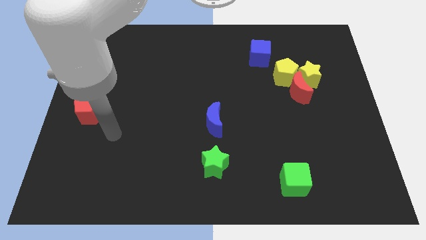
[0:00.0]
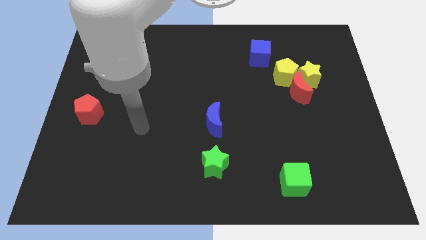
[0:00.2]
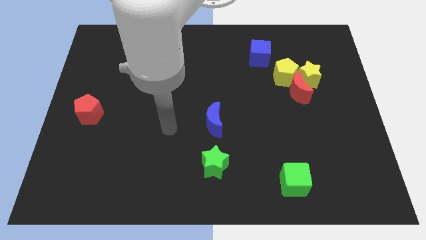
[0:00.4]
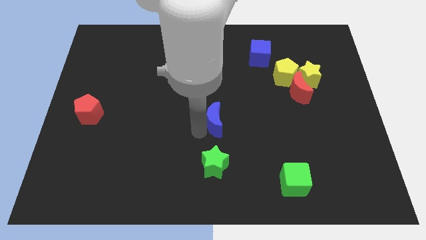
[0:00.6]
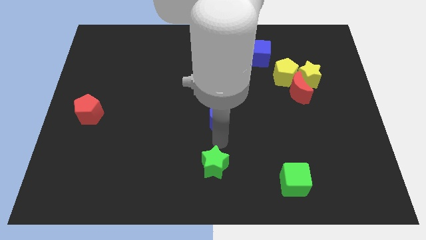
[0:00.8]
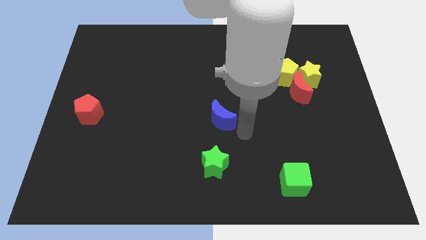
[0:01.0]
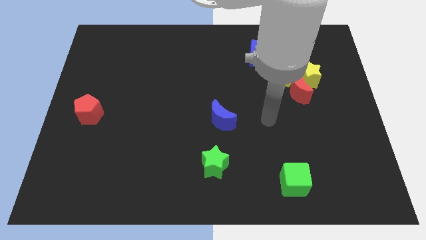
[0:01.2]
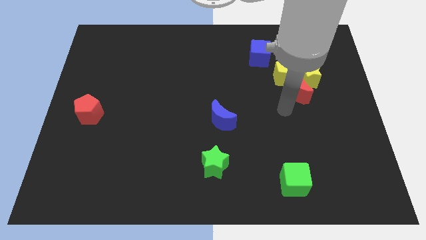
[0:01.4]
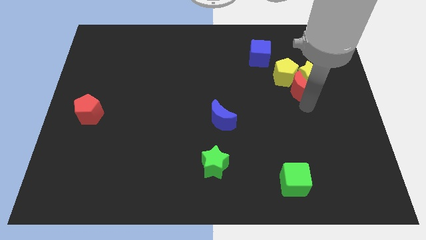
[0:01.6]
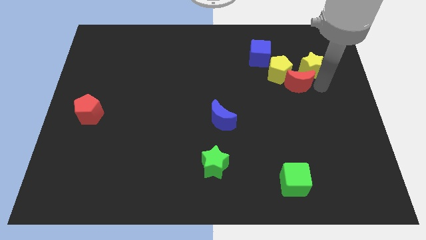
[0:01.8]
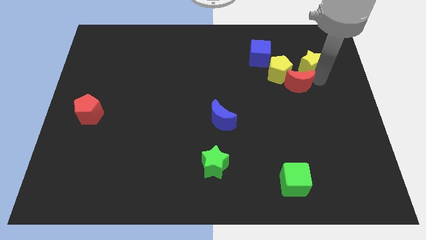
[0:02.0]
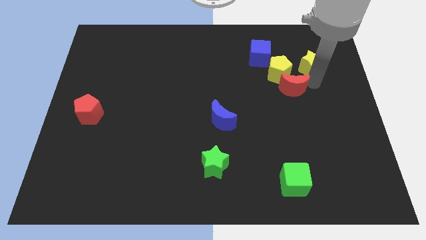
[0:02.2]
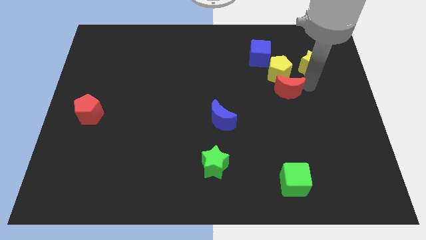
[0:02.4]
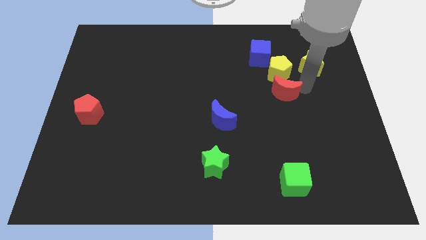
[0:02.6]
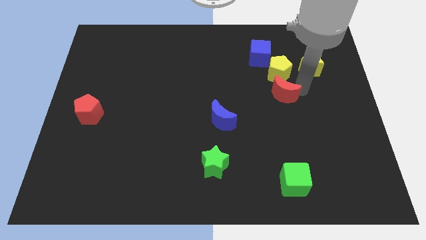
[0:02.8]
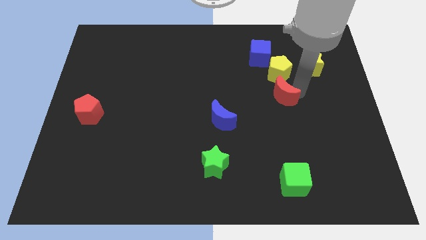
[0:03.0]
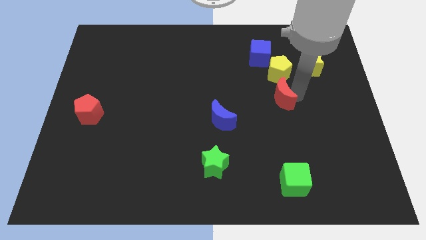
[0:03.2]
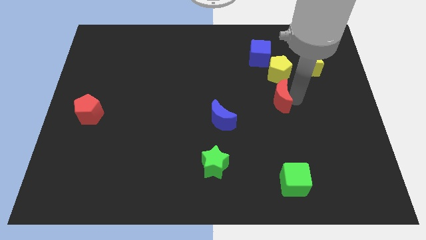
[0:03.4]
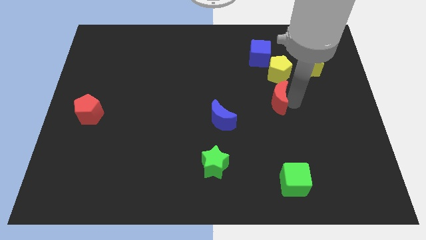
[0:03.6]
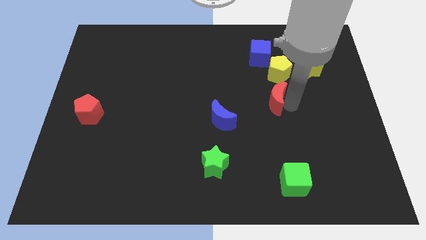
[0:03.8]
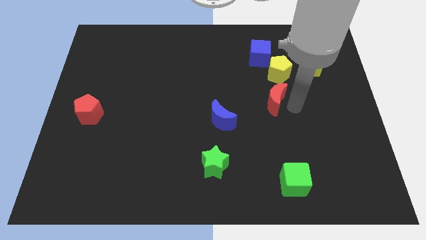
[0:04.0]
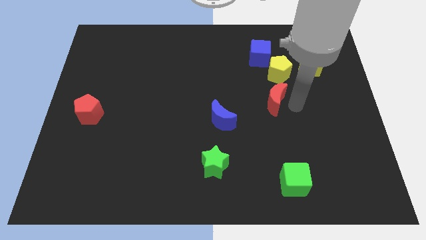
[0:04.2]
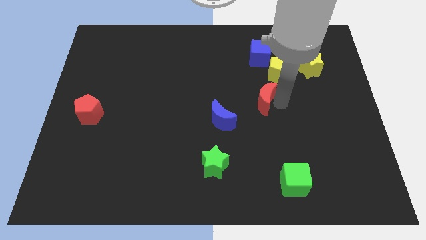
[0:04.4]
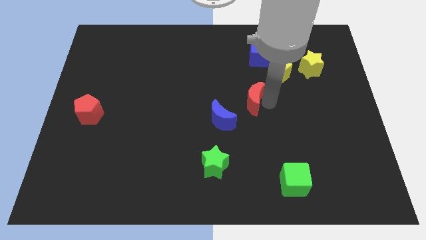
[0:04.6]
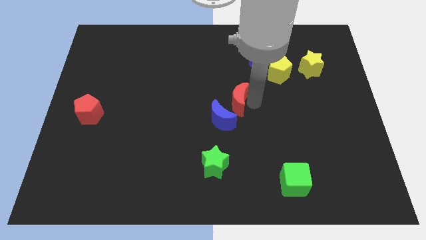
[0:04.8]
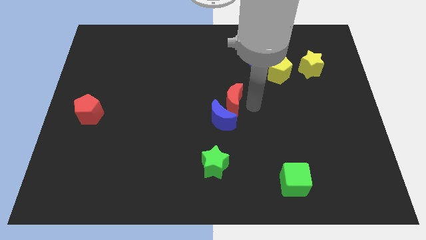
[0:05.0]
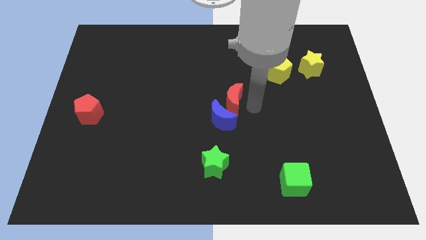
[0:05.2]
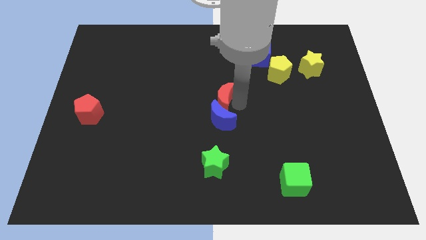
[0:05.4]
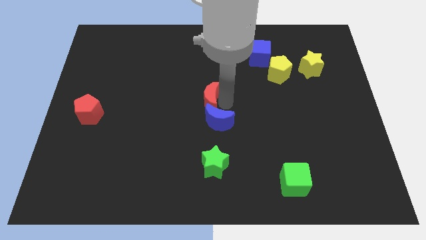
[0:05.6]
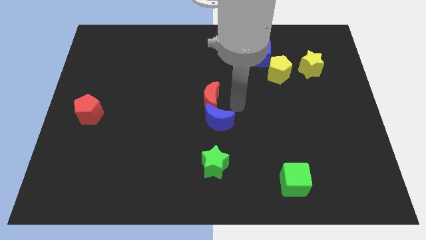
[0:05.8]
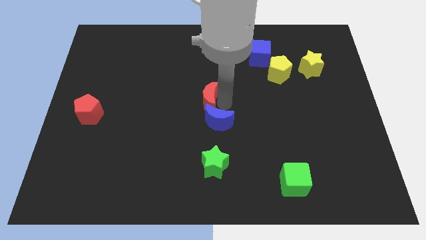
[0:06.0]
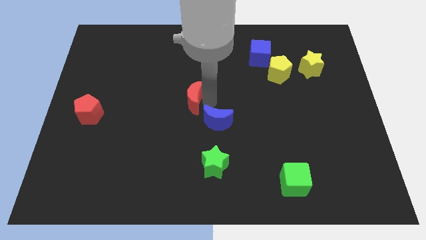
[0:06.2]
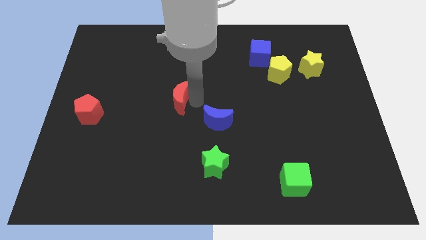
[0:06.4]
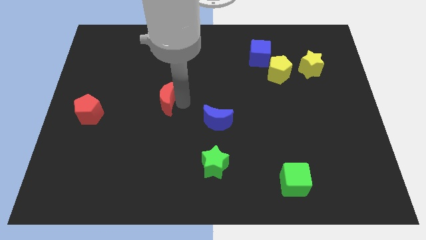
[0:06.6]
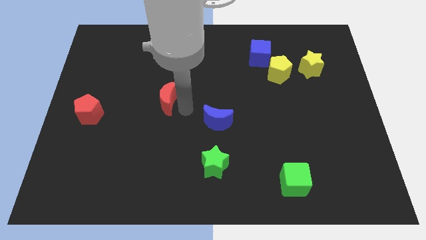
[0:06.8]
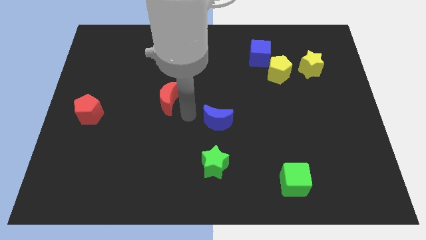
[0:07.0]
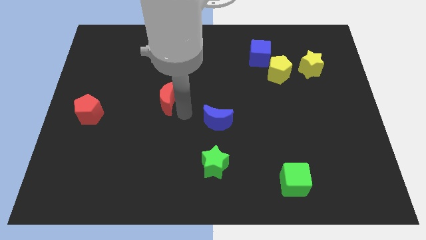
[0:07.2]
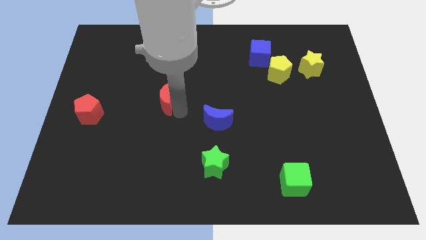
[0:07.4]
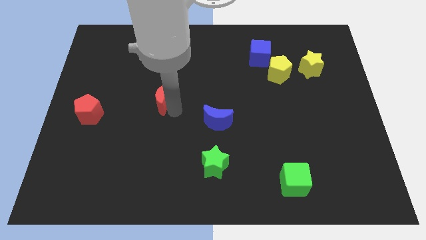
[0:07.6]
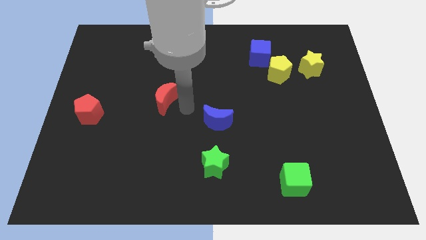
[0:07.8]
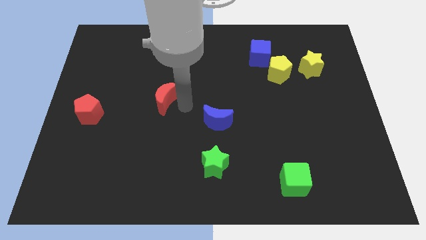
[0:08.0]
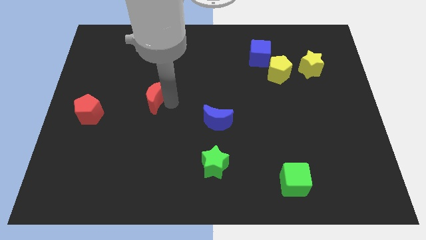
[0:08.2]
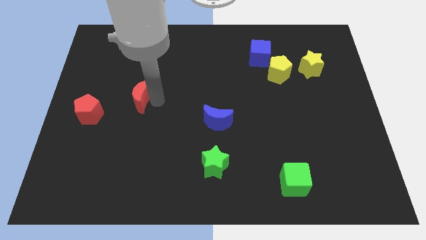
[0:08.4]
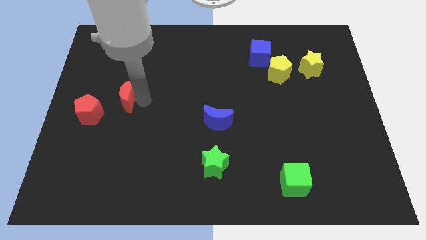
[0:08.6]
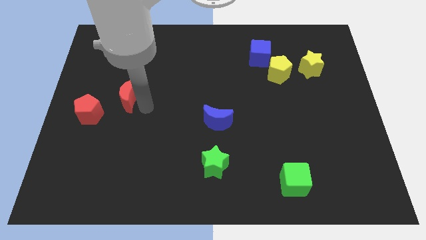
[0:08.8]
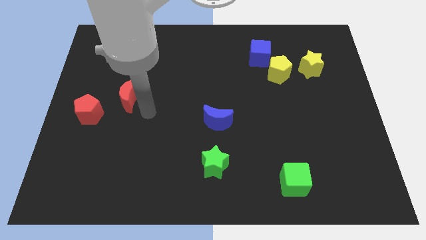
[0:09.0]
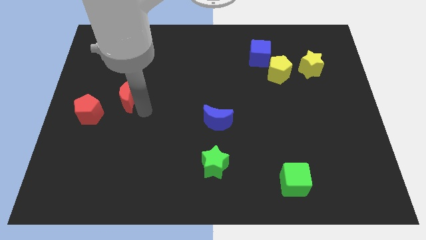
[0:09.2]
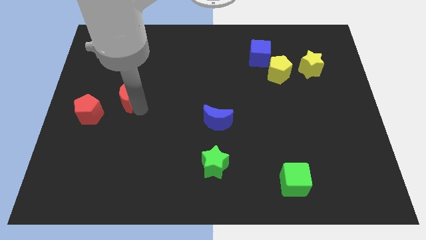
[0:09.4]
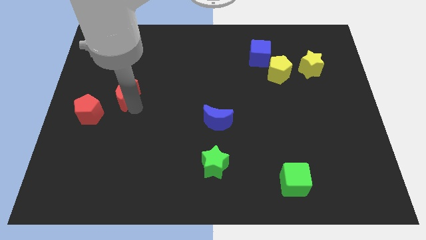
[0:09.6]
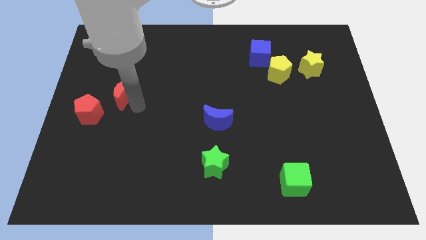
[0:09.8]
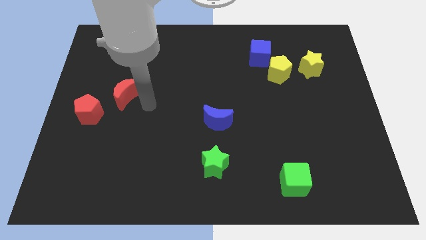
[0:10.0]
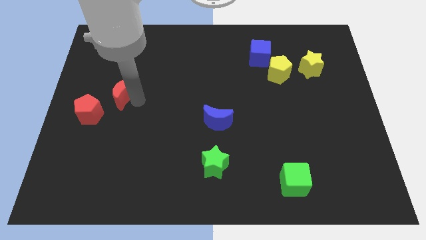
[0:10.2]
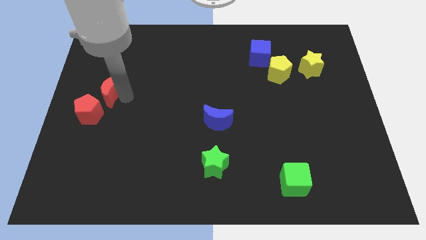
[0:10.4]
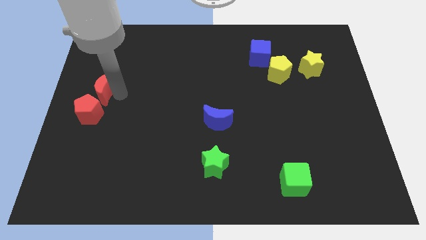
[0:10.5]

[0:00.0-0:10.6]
slide the red moon to the left side of the board

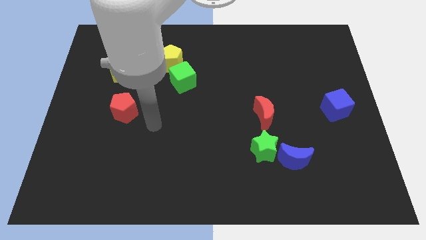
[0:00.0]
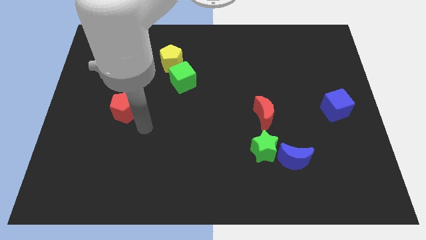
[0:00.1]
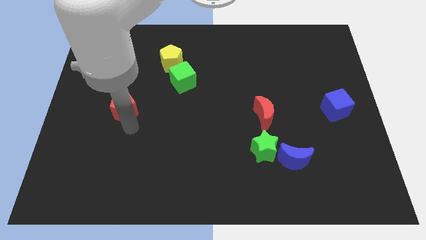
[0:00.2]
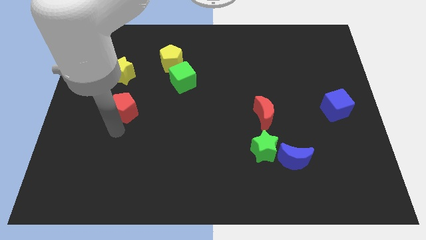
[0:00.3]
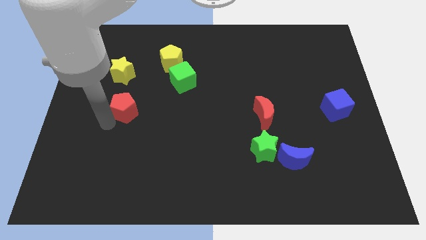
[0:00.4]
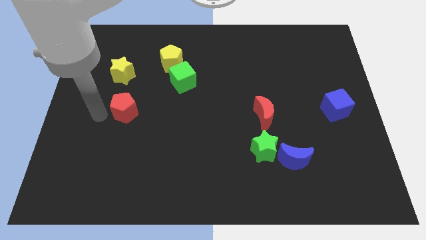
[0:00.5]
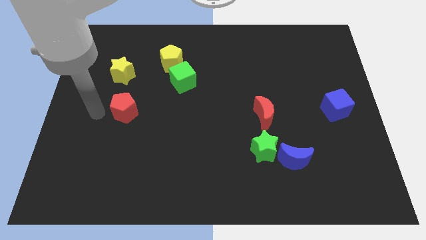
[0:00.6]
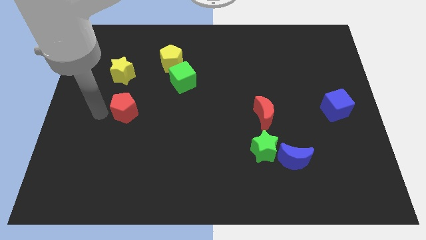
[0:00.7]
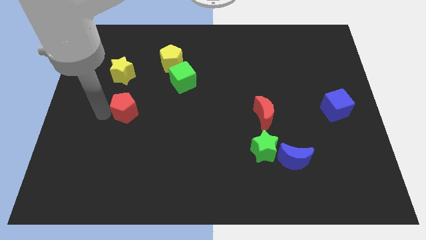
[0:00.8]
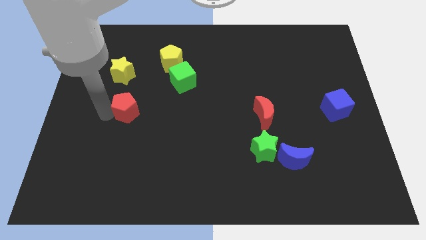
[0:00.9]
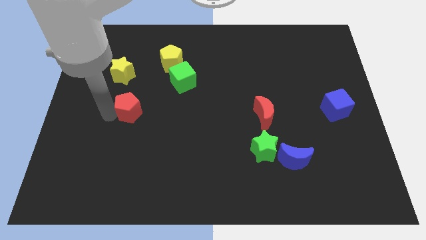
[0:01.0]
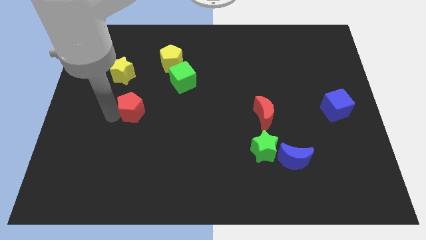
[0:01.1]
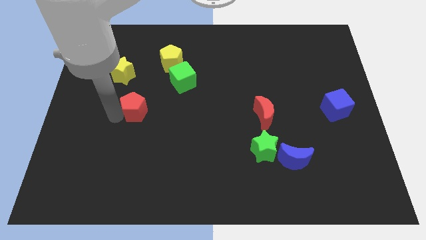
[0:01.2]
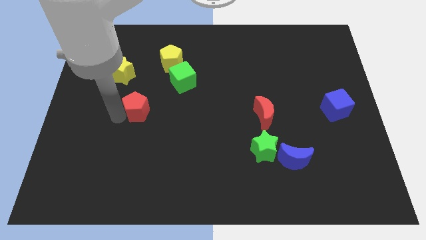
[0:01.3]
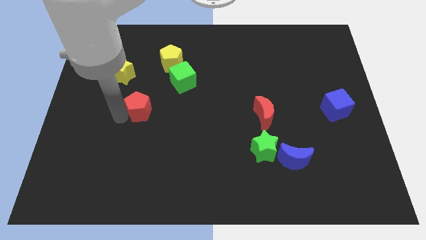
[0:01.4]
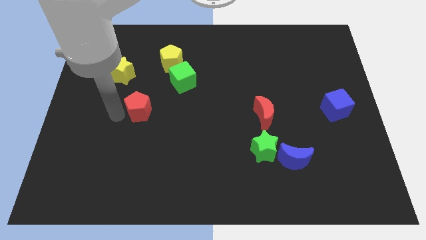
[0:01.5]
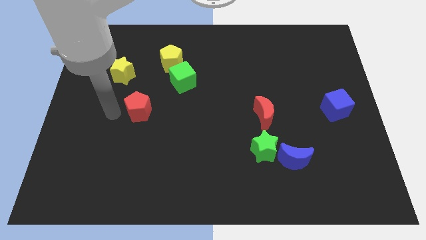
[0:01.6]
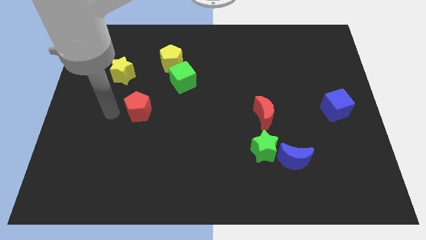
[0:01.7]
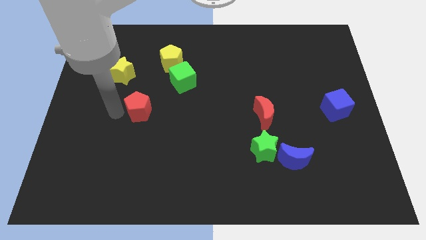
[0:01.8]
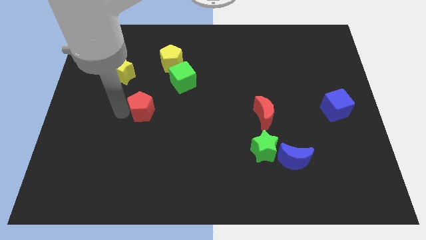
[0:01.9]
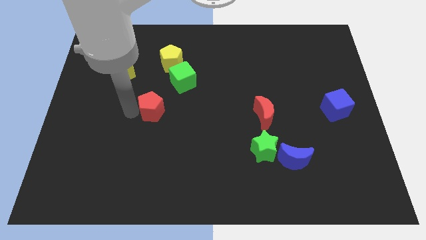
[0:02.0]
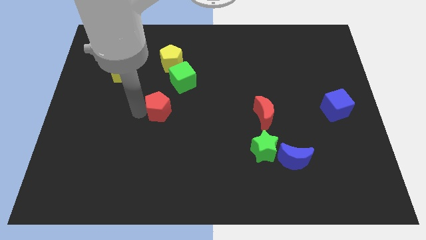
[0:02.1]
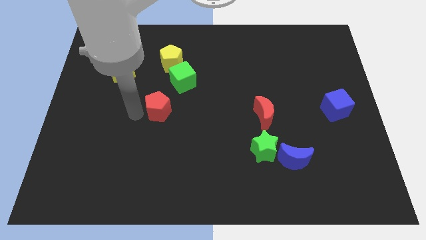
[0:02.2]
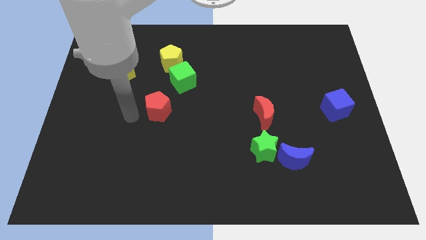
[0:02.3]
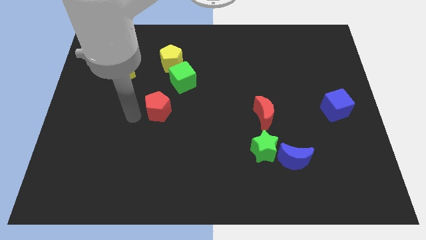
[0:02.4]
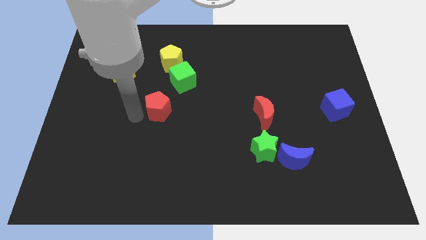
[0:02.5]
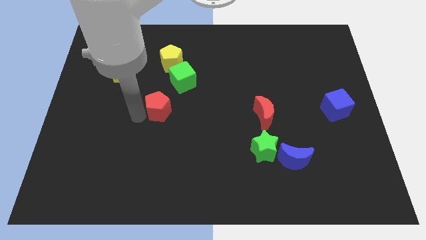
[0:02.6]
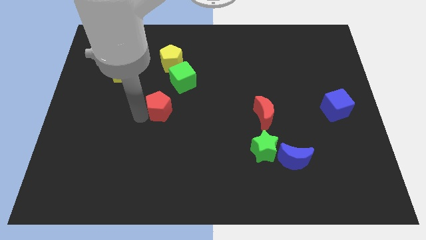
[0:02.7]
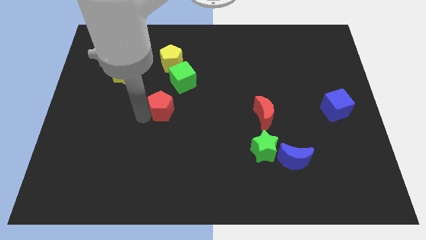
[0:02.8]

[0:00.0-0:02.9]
put the red pentagon to the center
